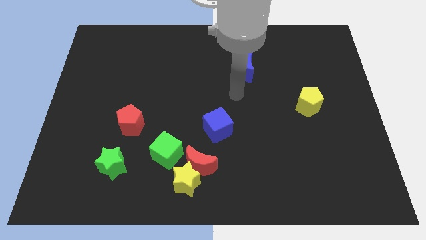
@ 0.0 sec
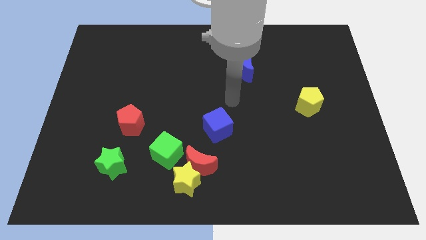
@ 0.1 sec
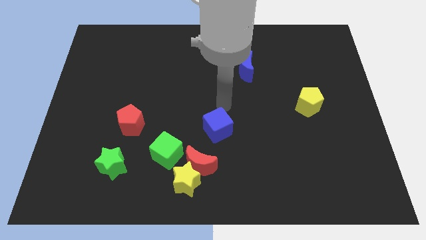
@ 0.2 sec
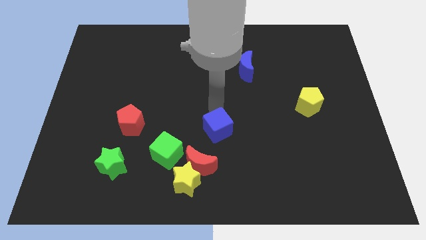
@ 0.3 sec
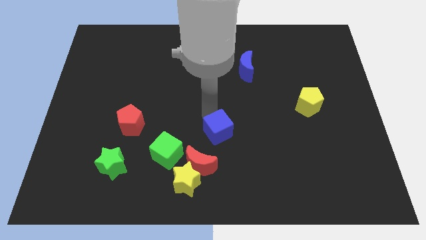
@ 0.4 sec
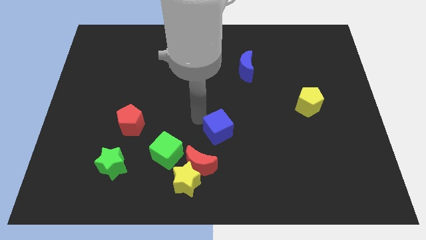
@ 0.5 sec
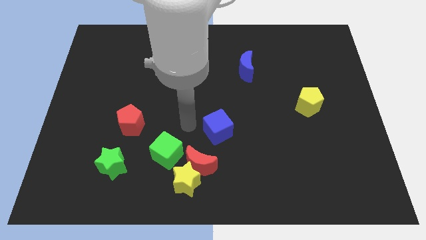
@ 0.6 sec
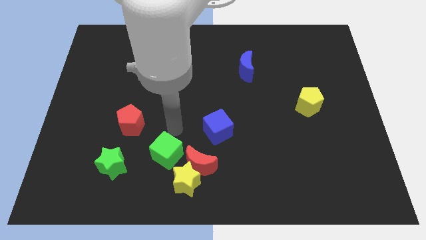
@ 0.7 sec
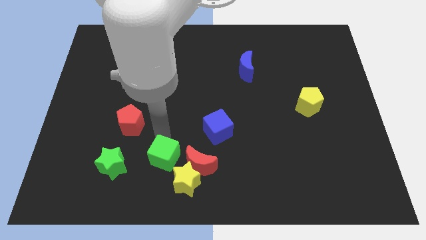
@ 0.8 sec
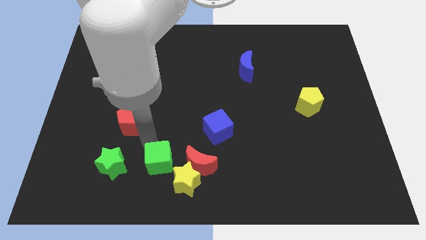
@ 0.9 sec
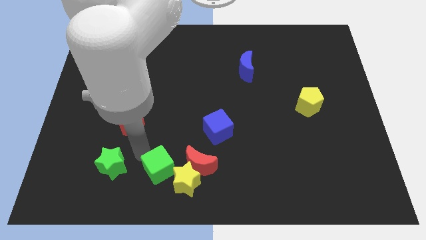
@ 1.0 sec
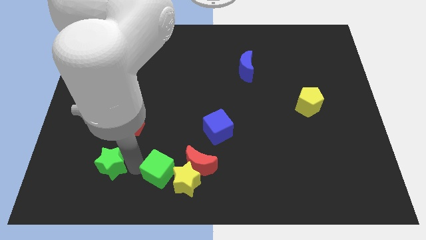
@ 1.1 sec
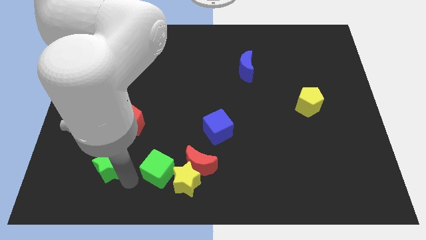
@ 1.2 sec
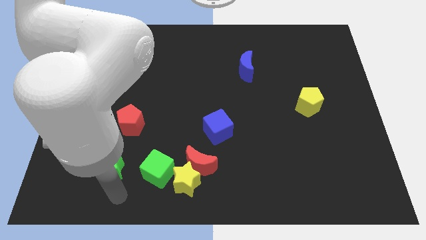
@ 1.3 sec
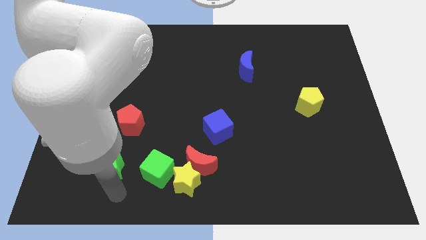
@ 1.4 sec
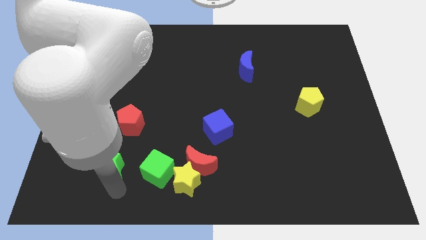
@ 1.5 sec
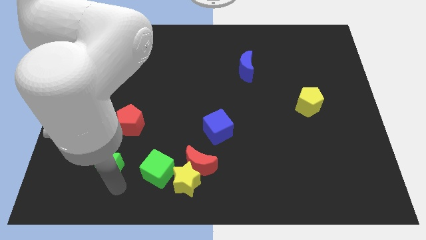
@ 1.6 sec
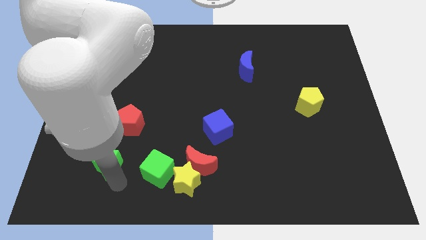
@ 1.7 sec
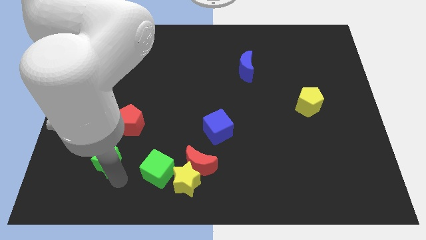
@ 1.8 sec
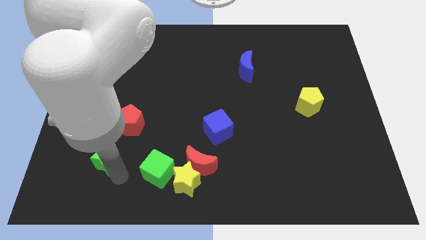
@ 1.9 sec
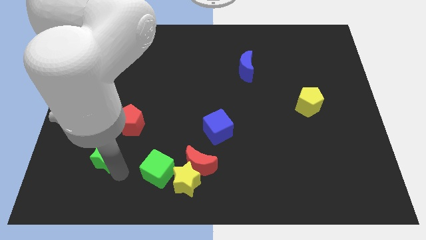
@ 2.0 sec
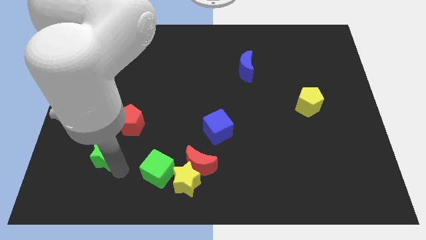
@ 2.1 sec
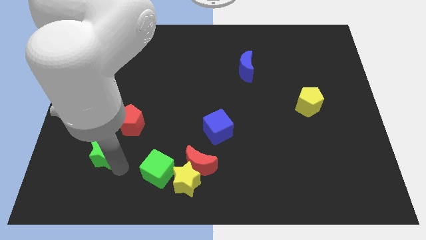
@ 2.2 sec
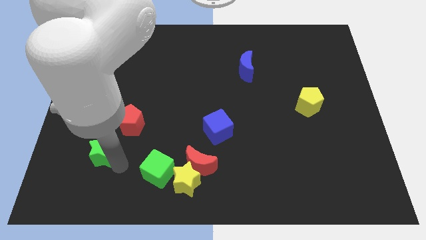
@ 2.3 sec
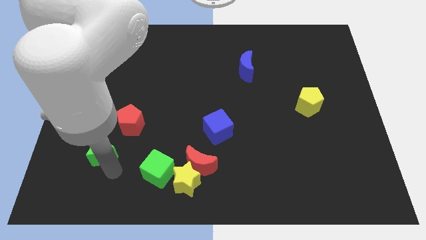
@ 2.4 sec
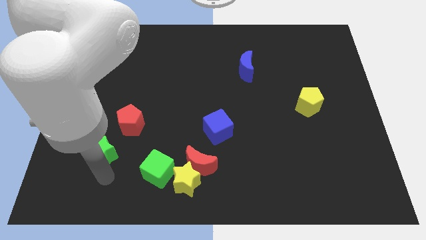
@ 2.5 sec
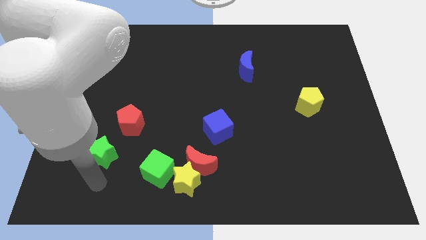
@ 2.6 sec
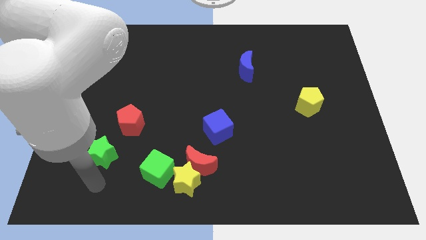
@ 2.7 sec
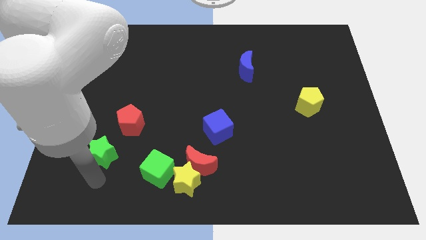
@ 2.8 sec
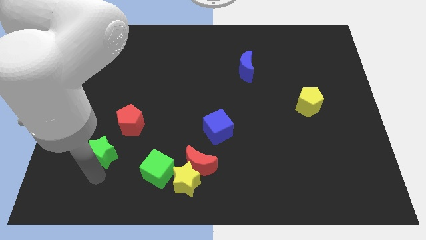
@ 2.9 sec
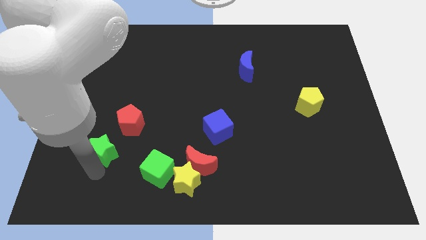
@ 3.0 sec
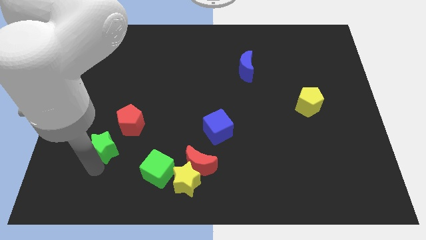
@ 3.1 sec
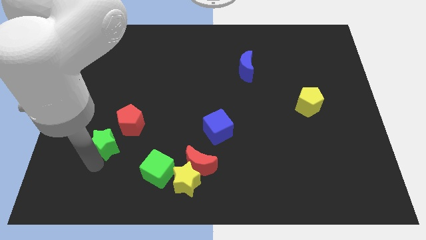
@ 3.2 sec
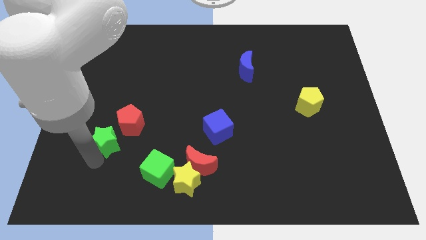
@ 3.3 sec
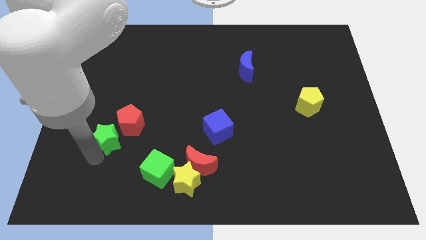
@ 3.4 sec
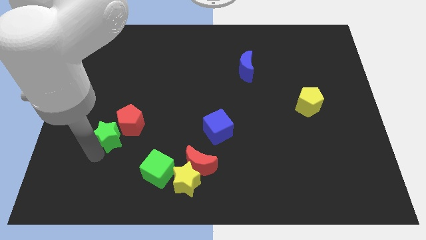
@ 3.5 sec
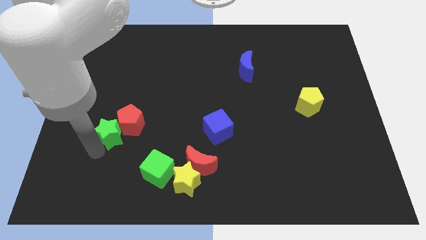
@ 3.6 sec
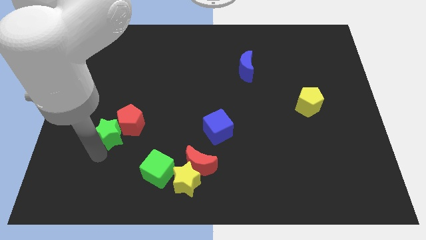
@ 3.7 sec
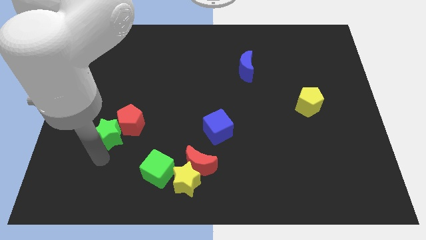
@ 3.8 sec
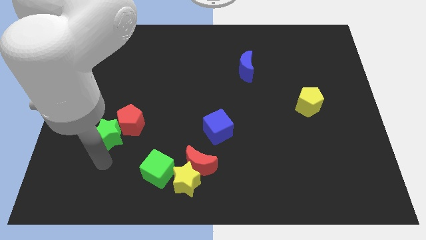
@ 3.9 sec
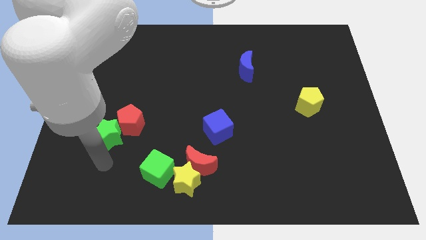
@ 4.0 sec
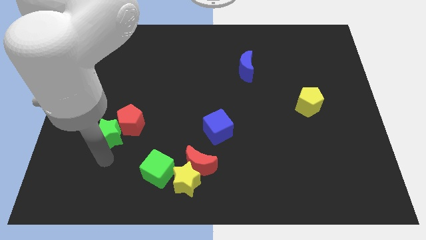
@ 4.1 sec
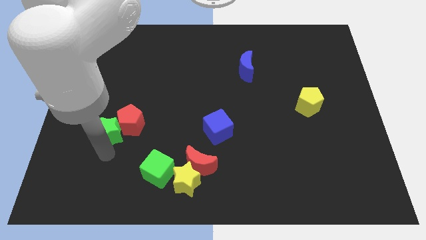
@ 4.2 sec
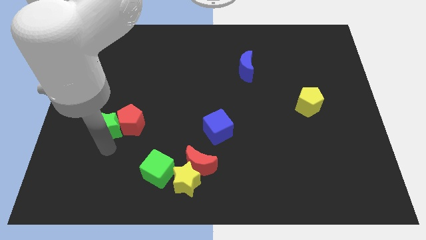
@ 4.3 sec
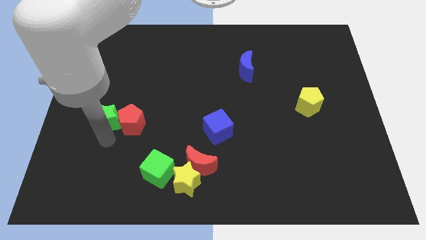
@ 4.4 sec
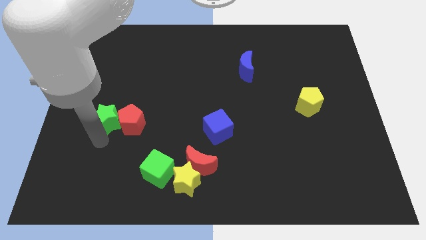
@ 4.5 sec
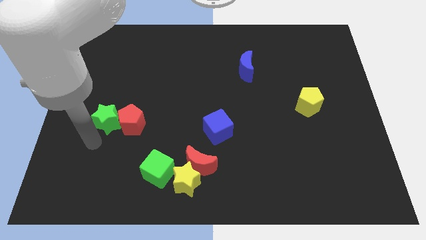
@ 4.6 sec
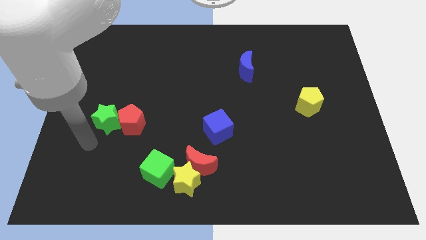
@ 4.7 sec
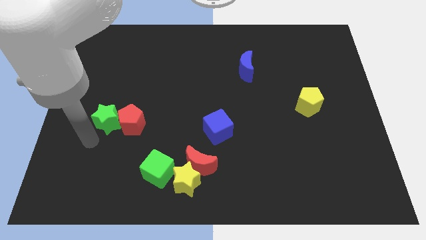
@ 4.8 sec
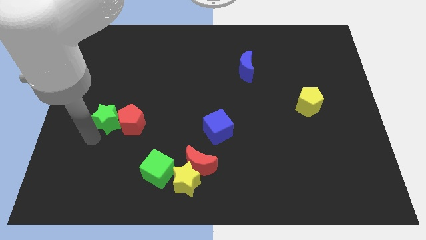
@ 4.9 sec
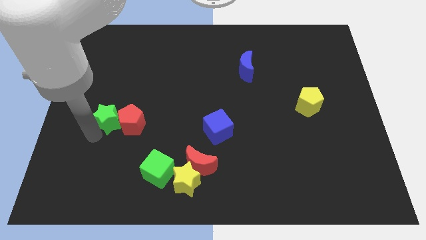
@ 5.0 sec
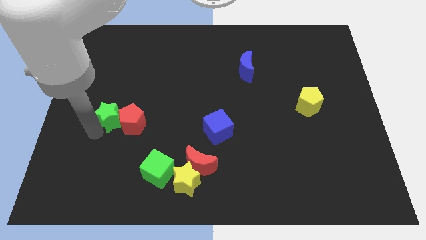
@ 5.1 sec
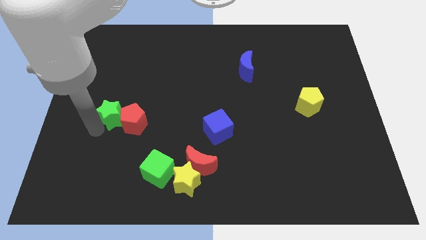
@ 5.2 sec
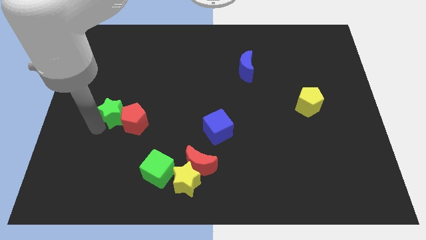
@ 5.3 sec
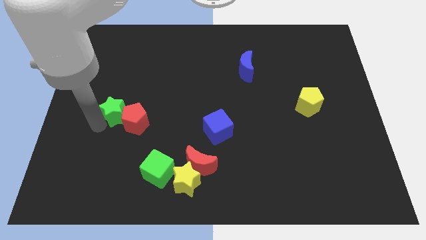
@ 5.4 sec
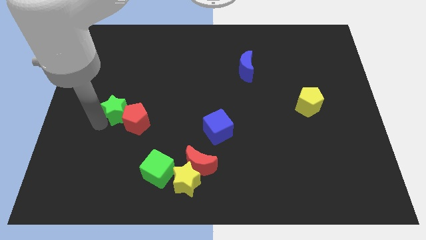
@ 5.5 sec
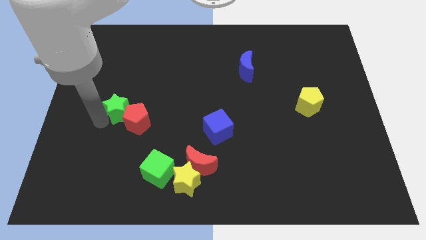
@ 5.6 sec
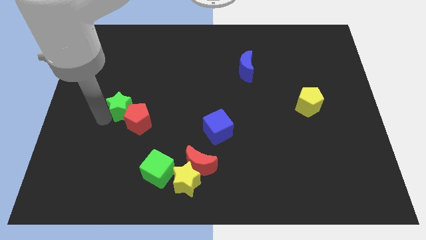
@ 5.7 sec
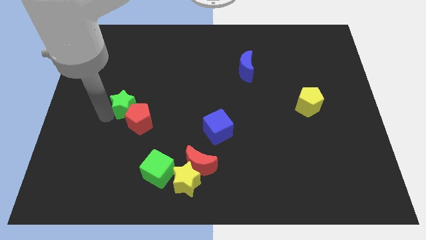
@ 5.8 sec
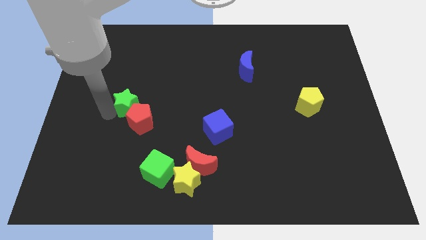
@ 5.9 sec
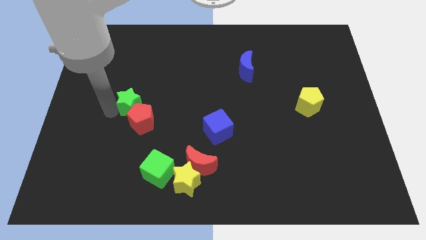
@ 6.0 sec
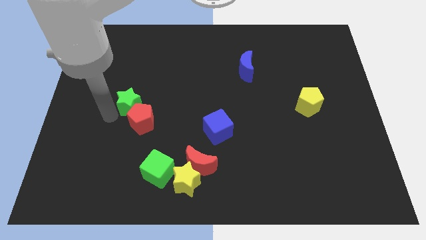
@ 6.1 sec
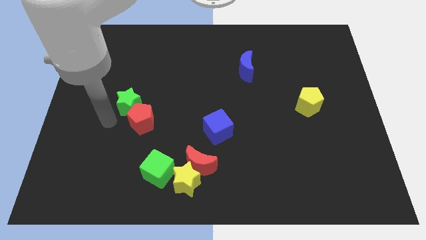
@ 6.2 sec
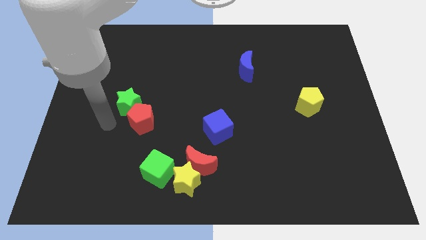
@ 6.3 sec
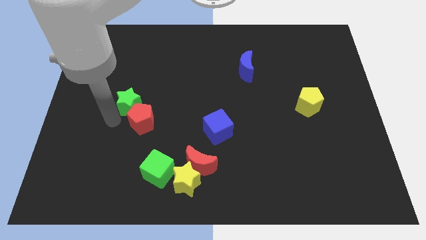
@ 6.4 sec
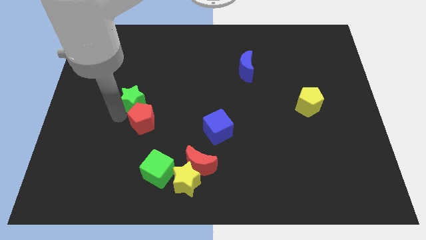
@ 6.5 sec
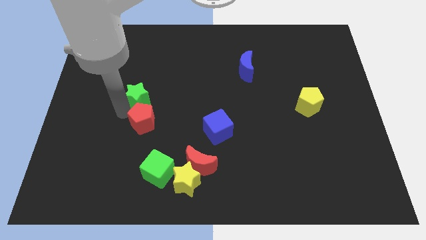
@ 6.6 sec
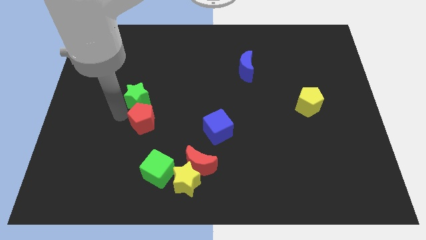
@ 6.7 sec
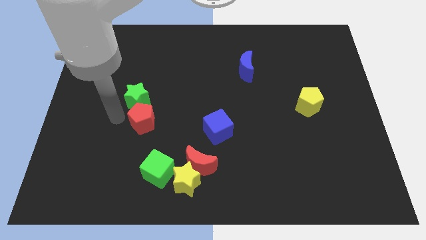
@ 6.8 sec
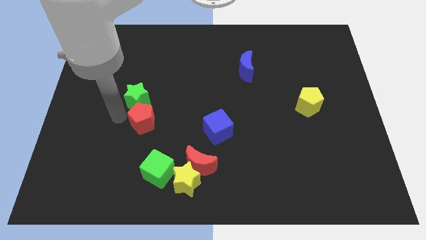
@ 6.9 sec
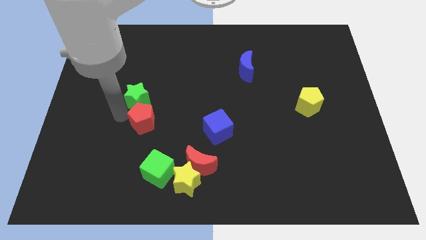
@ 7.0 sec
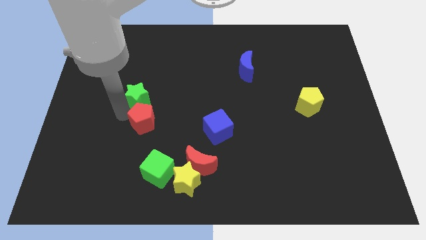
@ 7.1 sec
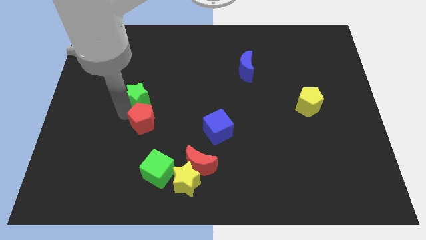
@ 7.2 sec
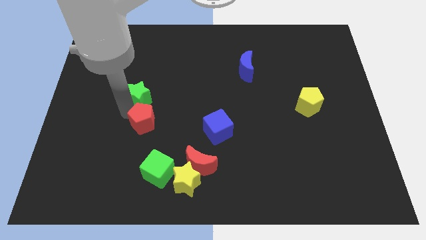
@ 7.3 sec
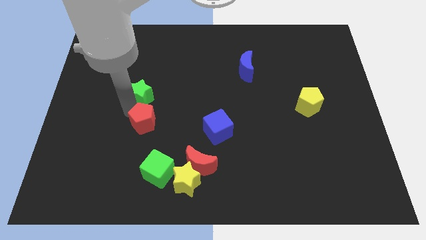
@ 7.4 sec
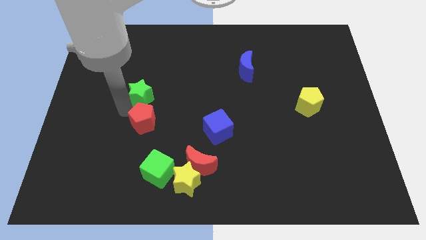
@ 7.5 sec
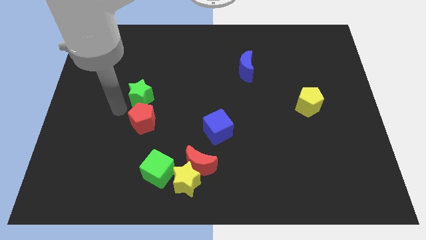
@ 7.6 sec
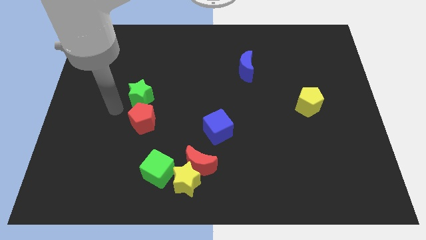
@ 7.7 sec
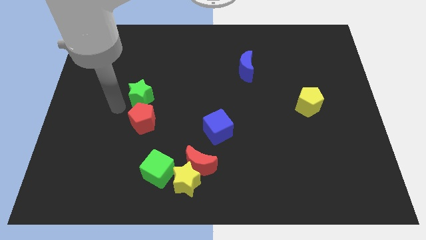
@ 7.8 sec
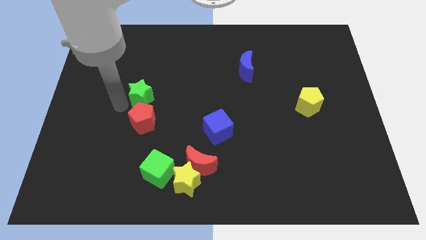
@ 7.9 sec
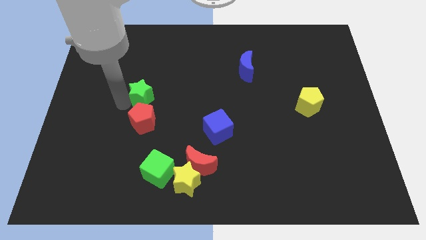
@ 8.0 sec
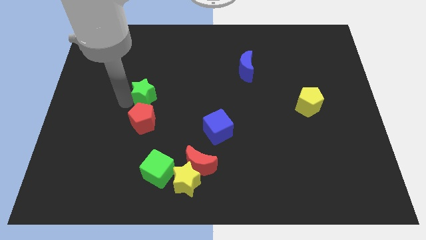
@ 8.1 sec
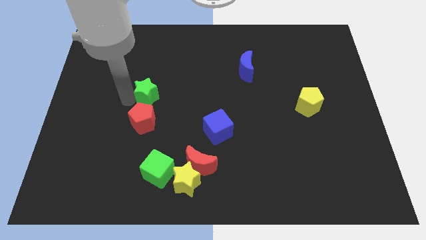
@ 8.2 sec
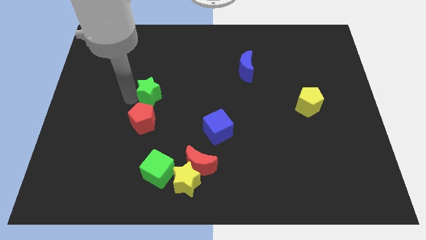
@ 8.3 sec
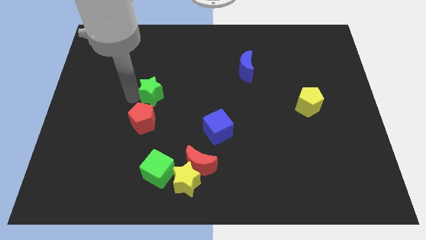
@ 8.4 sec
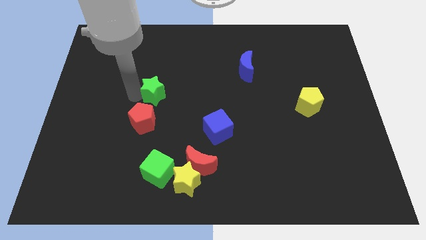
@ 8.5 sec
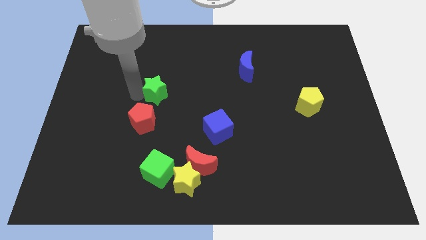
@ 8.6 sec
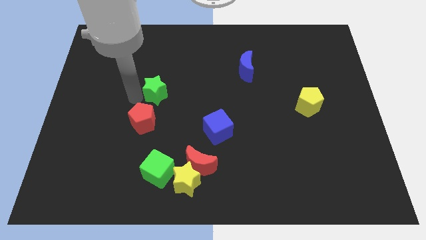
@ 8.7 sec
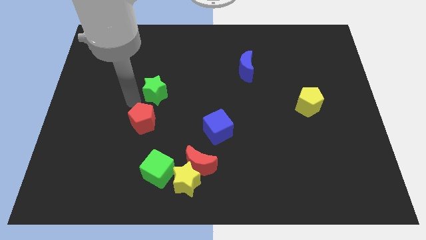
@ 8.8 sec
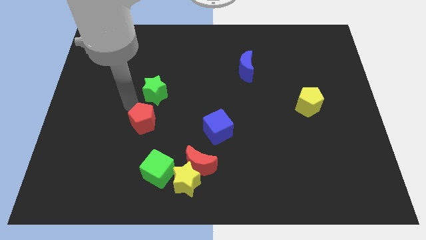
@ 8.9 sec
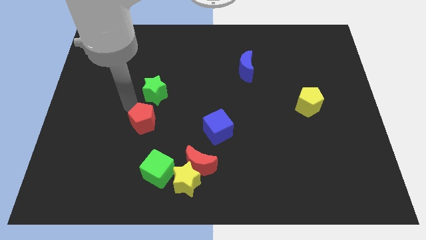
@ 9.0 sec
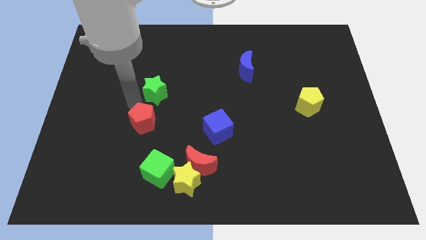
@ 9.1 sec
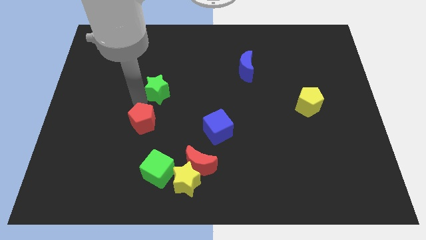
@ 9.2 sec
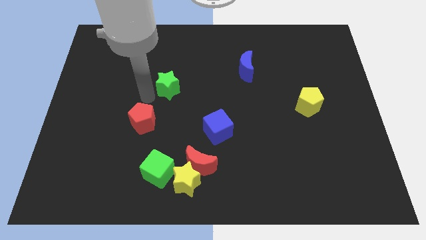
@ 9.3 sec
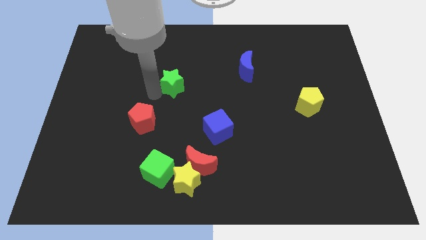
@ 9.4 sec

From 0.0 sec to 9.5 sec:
slide the green star up and then right
